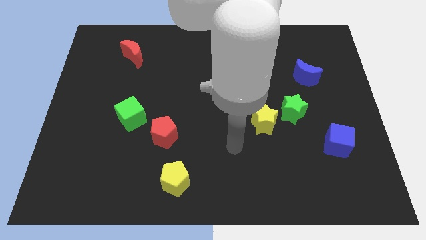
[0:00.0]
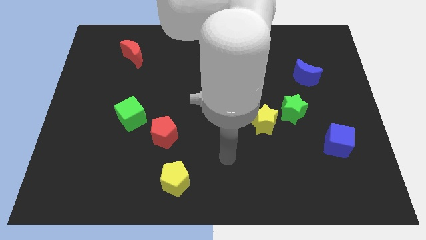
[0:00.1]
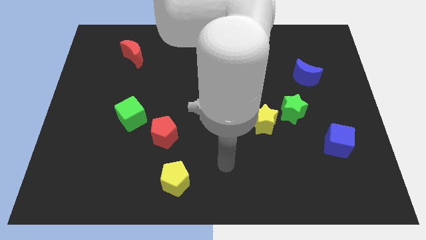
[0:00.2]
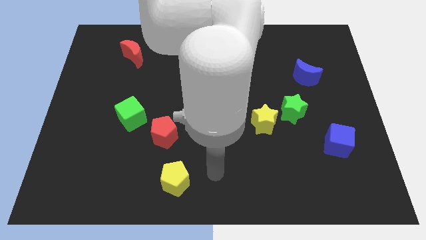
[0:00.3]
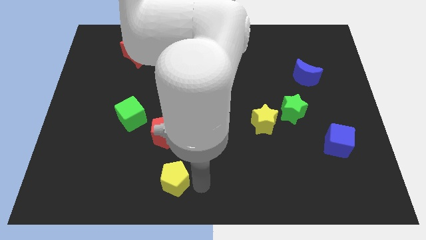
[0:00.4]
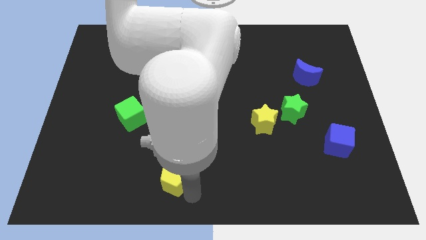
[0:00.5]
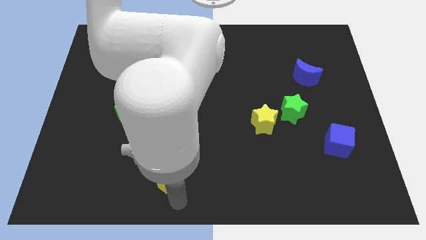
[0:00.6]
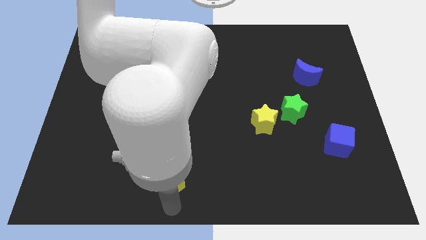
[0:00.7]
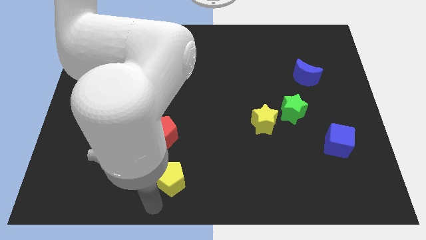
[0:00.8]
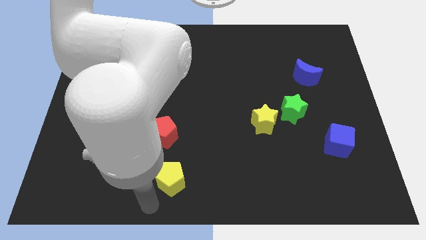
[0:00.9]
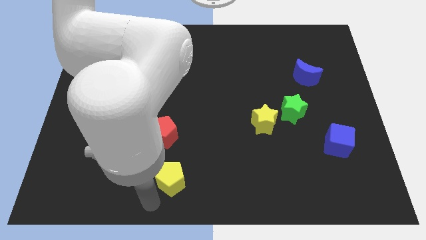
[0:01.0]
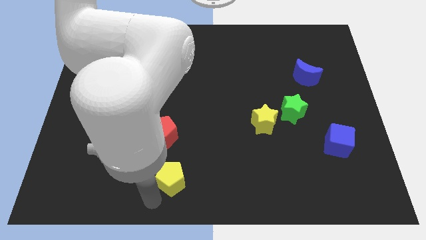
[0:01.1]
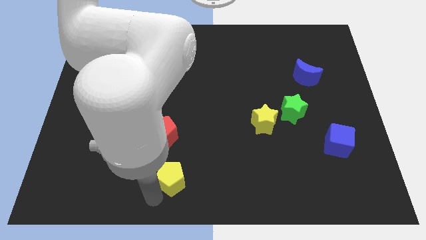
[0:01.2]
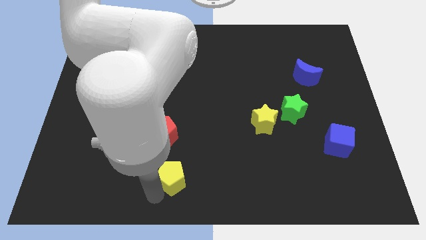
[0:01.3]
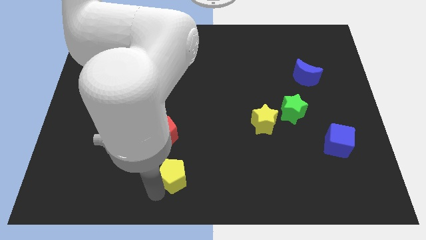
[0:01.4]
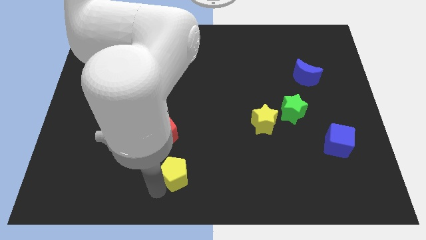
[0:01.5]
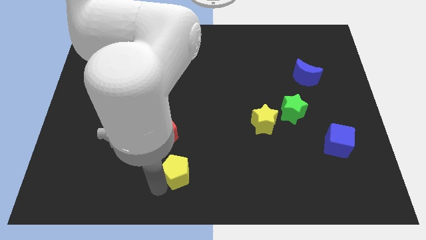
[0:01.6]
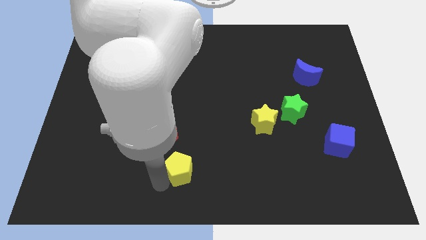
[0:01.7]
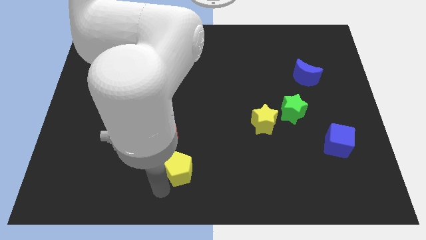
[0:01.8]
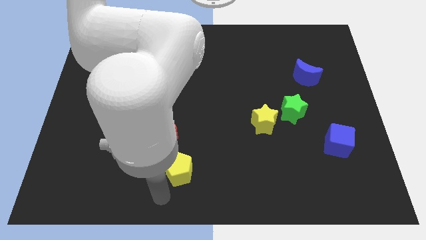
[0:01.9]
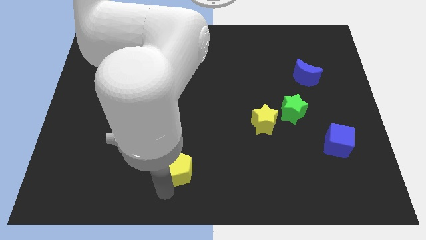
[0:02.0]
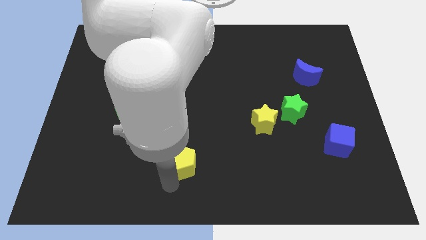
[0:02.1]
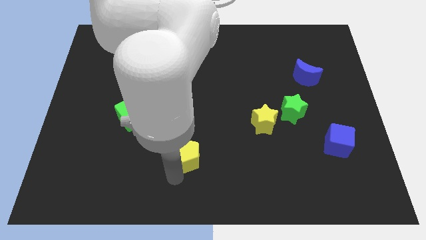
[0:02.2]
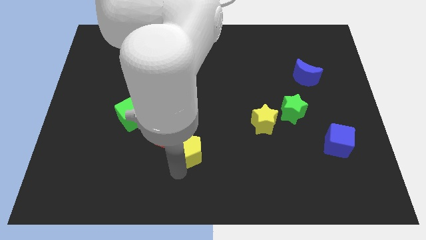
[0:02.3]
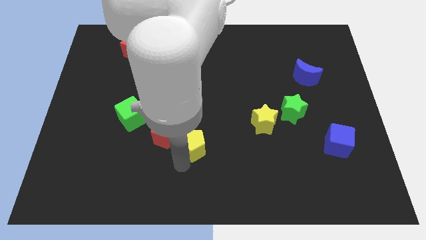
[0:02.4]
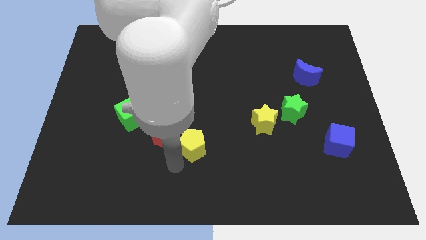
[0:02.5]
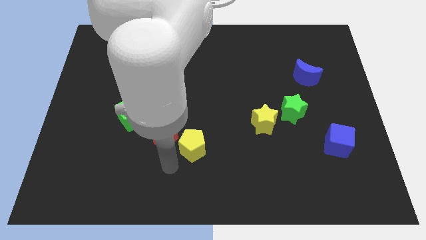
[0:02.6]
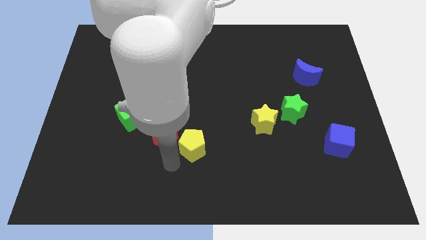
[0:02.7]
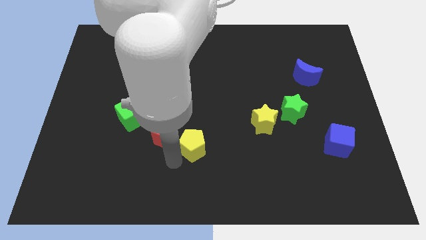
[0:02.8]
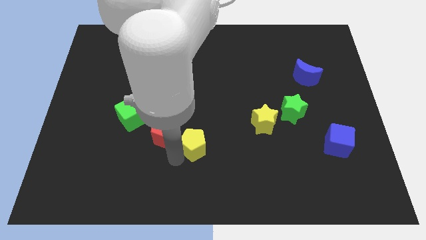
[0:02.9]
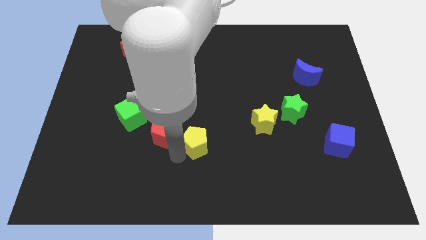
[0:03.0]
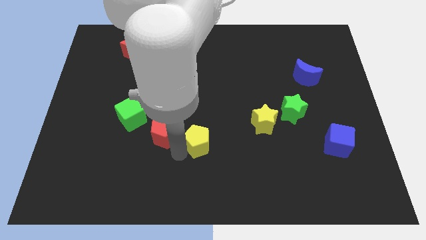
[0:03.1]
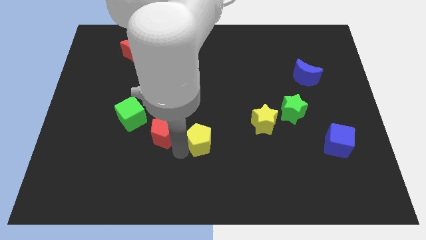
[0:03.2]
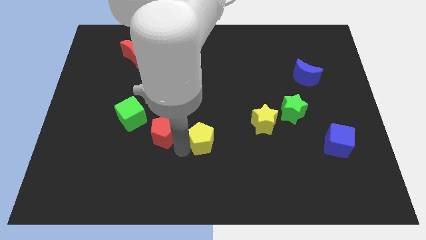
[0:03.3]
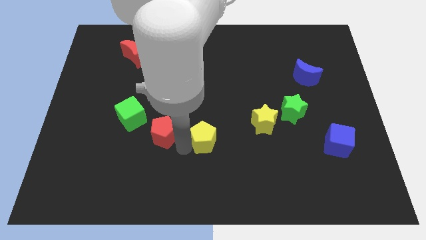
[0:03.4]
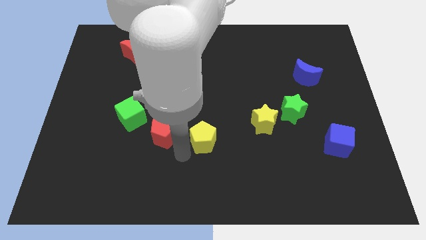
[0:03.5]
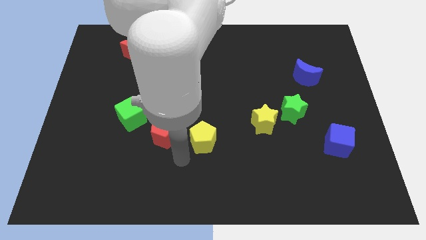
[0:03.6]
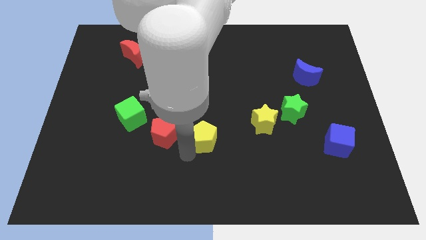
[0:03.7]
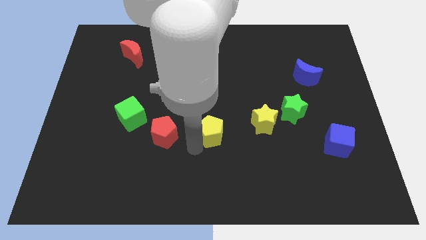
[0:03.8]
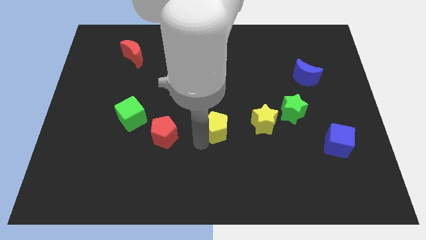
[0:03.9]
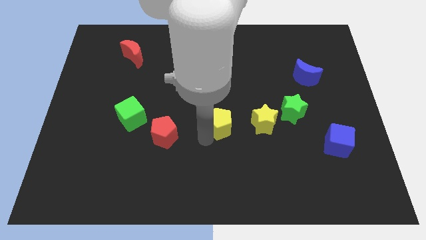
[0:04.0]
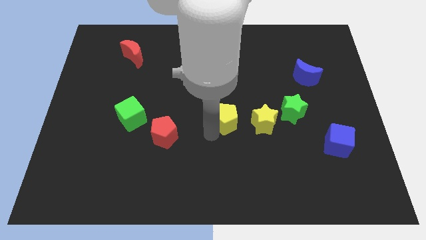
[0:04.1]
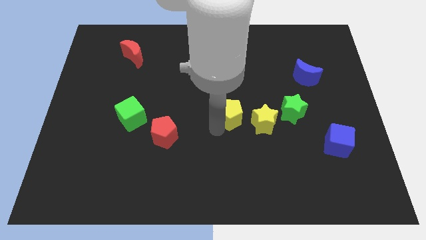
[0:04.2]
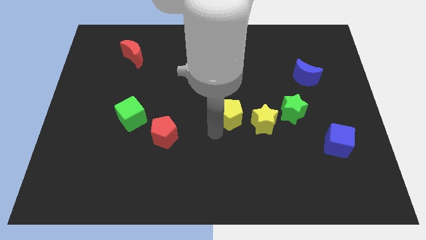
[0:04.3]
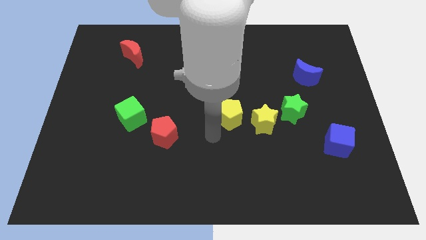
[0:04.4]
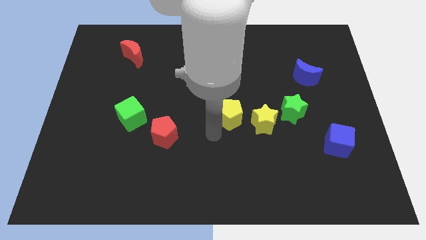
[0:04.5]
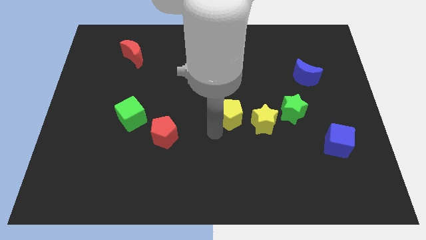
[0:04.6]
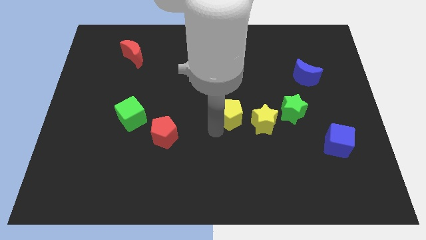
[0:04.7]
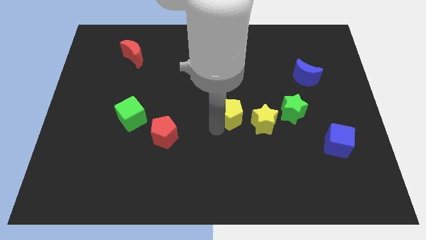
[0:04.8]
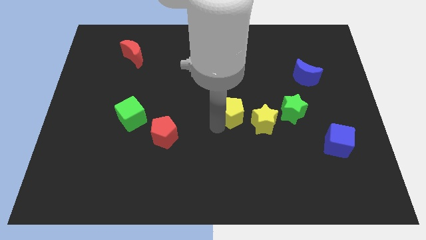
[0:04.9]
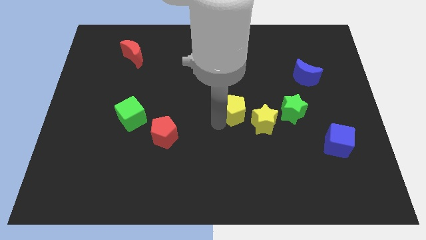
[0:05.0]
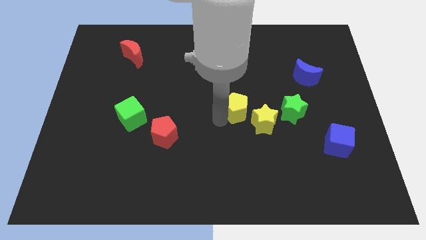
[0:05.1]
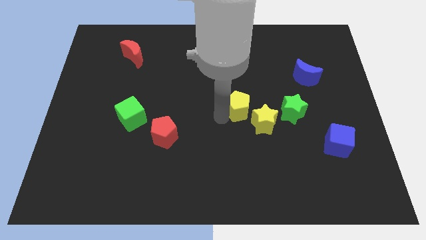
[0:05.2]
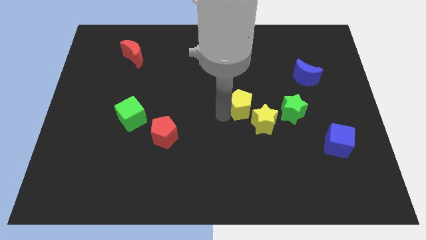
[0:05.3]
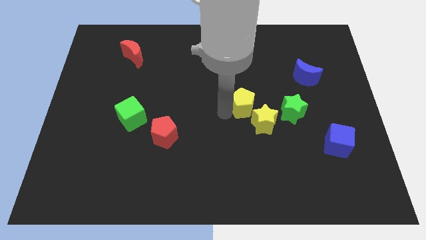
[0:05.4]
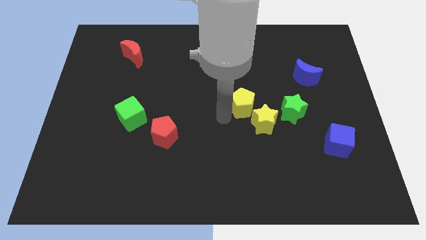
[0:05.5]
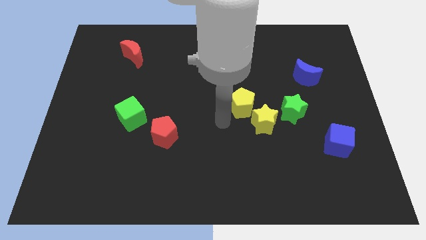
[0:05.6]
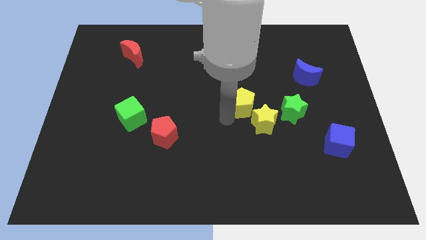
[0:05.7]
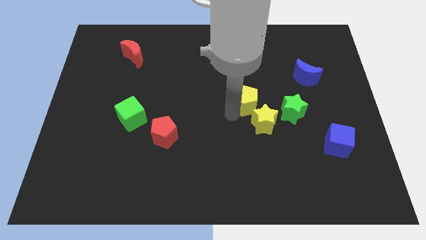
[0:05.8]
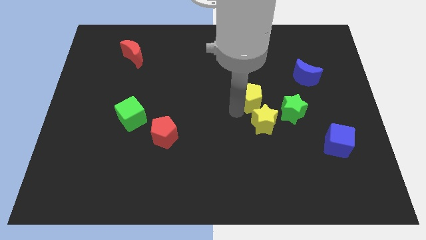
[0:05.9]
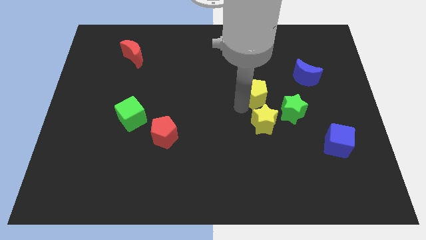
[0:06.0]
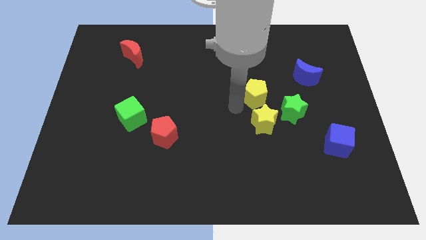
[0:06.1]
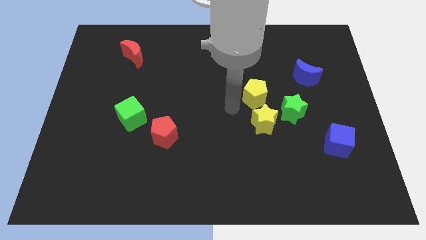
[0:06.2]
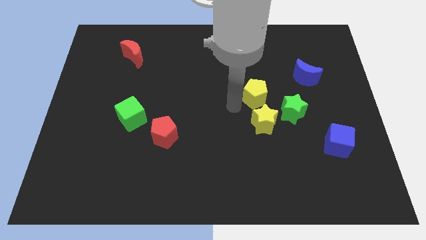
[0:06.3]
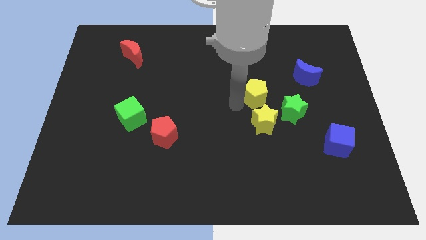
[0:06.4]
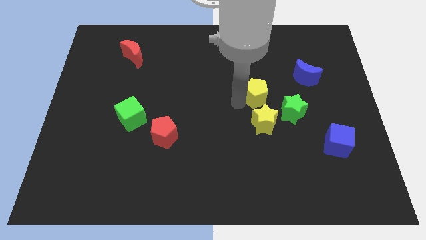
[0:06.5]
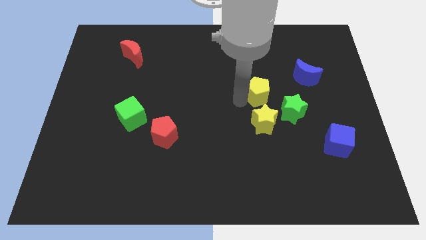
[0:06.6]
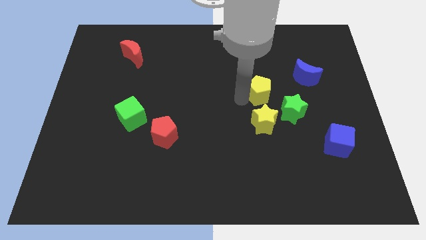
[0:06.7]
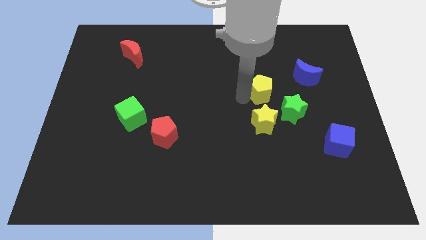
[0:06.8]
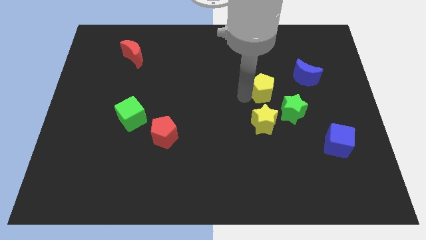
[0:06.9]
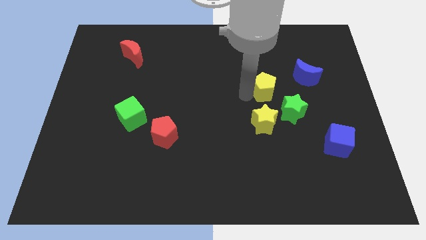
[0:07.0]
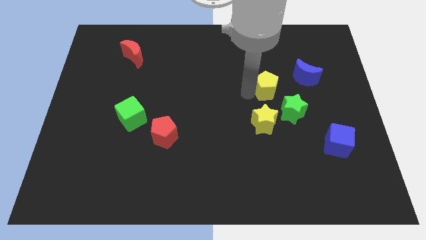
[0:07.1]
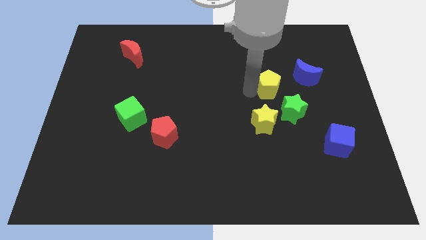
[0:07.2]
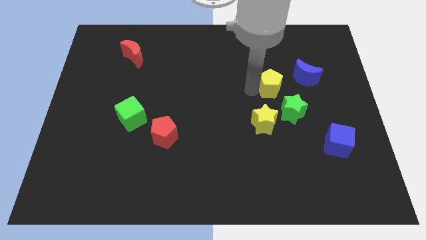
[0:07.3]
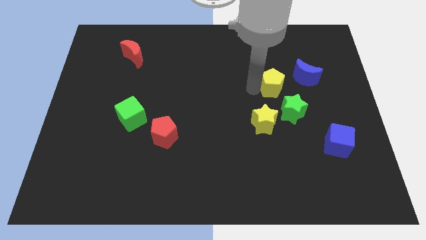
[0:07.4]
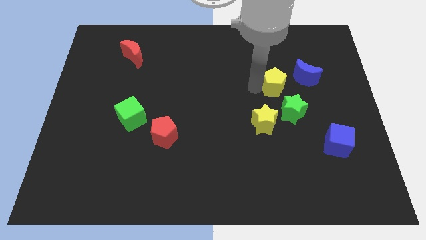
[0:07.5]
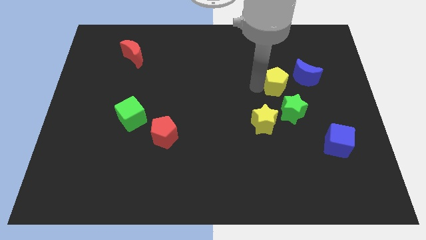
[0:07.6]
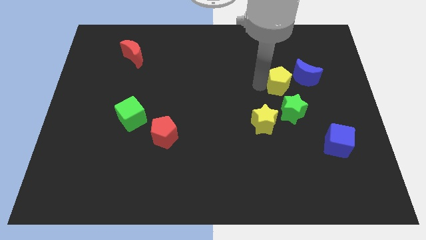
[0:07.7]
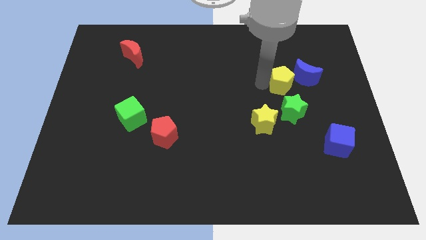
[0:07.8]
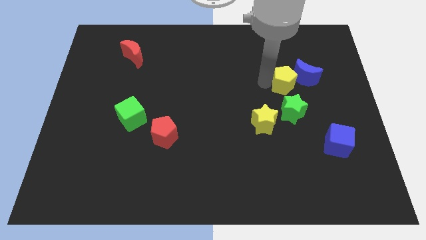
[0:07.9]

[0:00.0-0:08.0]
put the yellow pentagon towards the blue moon
